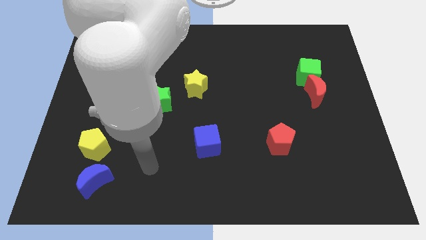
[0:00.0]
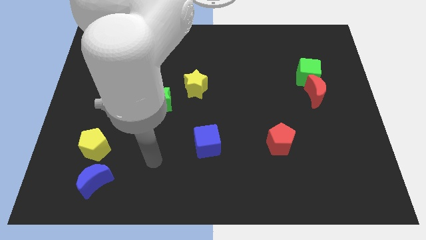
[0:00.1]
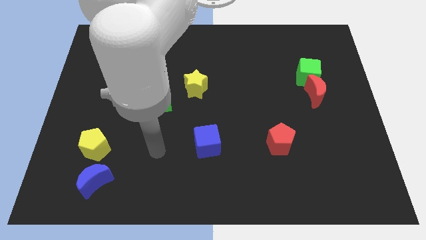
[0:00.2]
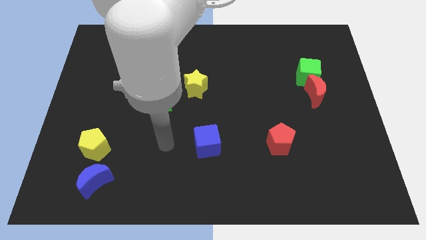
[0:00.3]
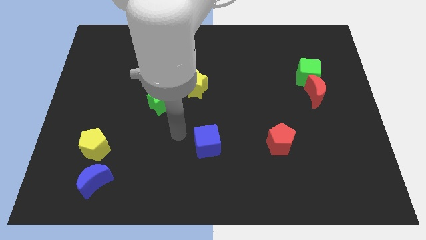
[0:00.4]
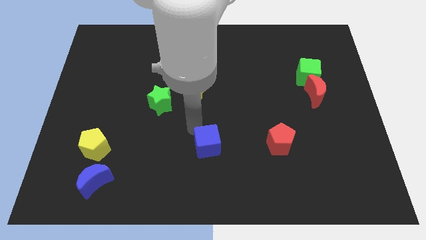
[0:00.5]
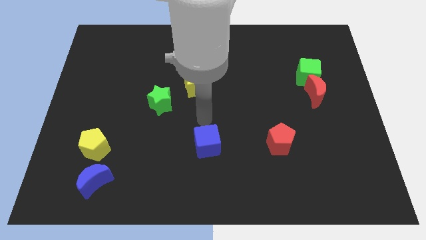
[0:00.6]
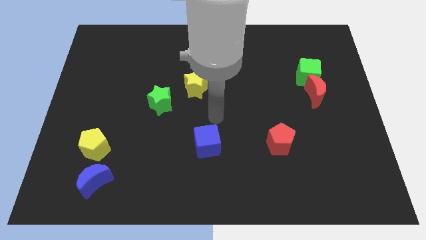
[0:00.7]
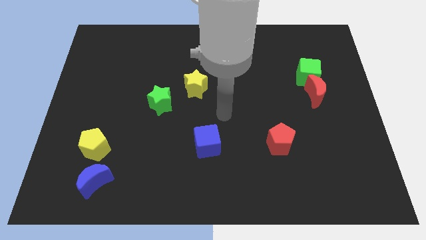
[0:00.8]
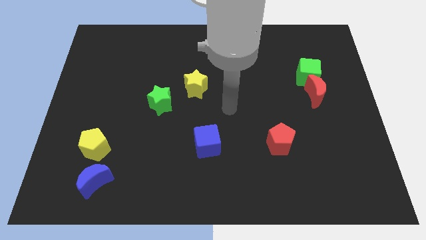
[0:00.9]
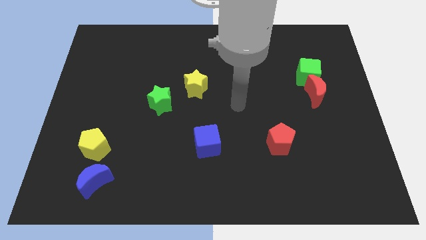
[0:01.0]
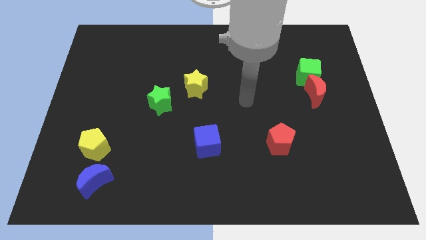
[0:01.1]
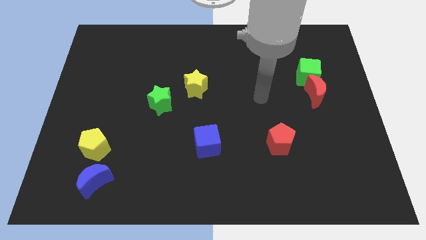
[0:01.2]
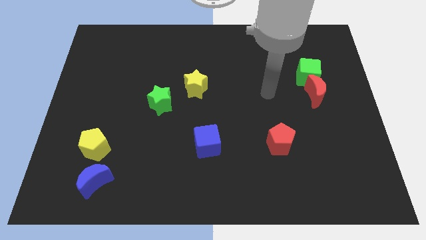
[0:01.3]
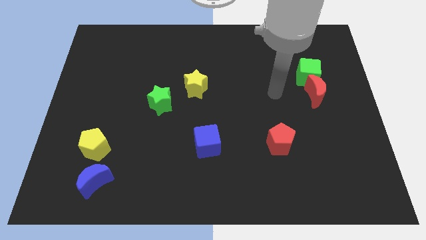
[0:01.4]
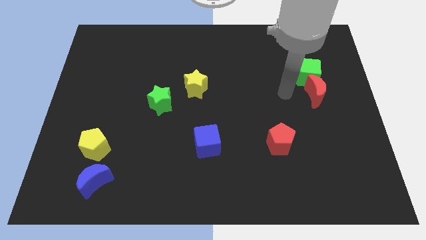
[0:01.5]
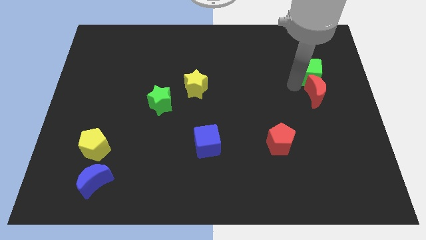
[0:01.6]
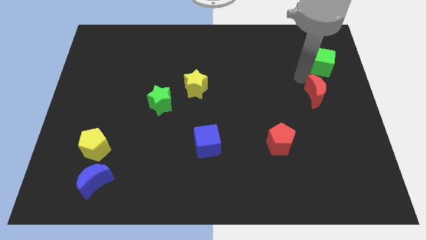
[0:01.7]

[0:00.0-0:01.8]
move the red moon away from the green cube

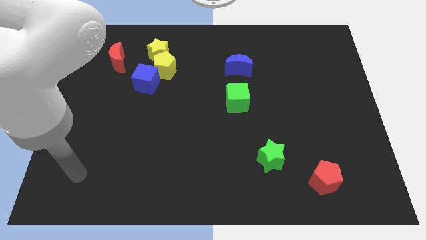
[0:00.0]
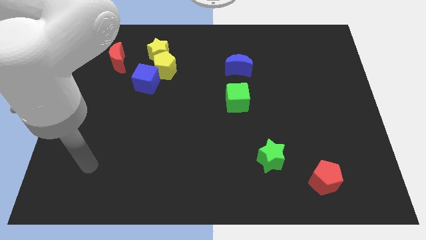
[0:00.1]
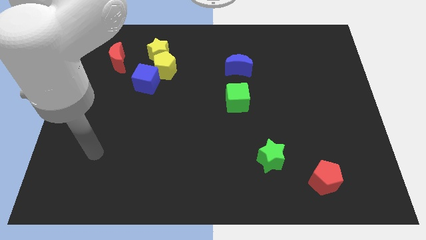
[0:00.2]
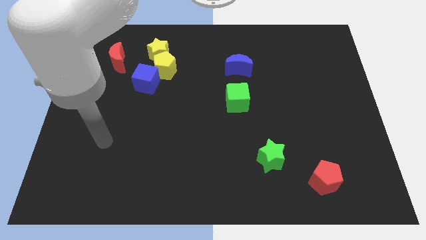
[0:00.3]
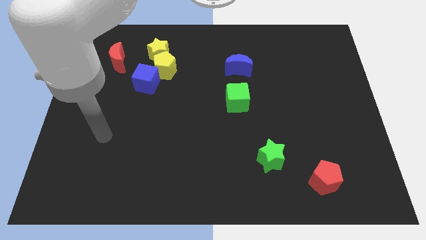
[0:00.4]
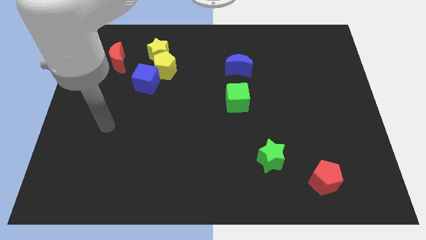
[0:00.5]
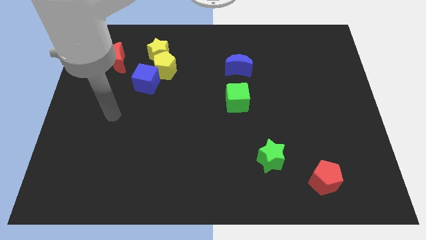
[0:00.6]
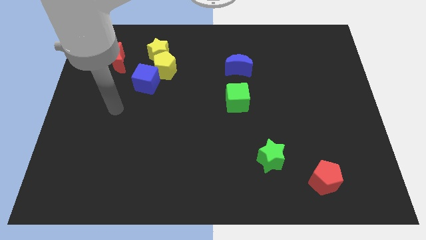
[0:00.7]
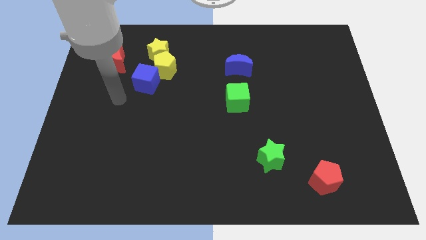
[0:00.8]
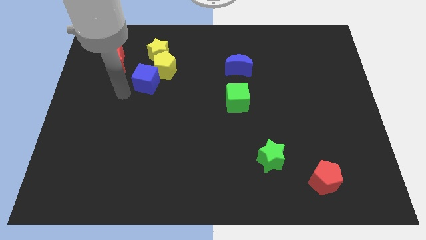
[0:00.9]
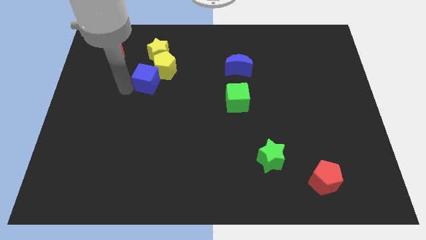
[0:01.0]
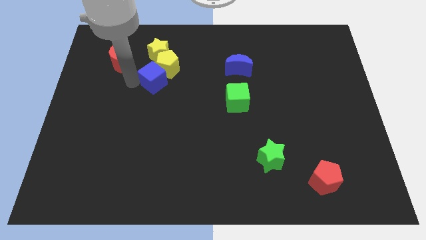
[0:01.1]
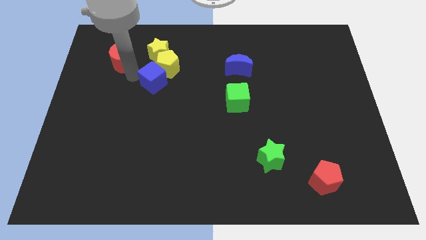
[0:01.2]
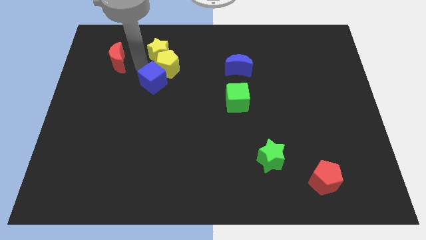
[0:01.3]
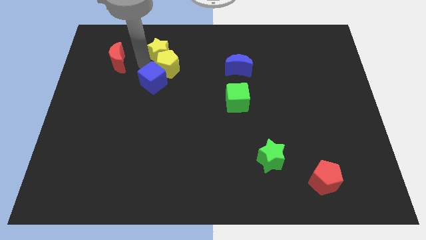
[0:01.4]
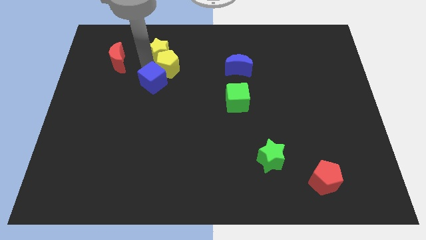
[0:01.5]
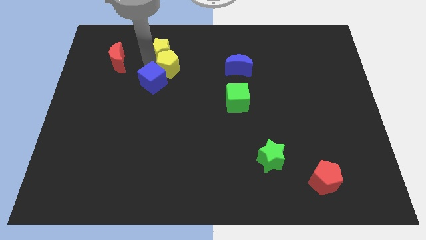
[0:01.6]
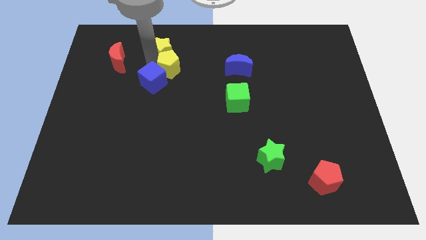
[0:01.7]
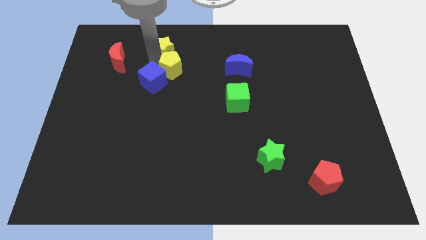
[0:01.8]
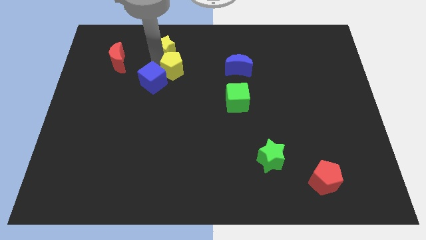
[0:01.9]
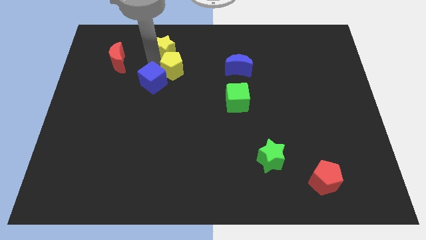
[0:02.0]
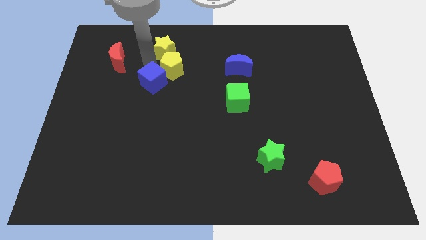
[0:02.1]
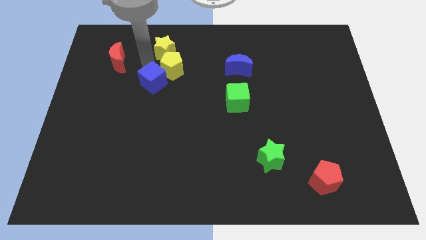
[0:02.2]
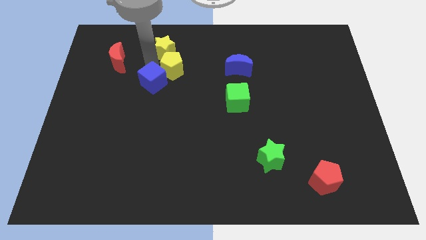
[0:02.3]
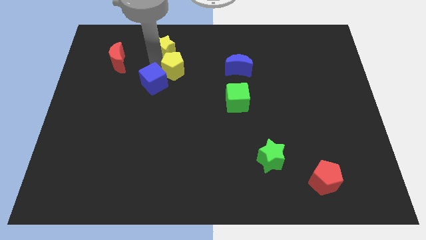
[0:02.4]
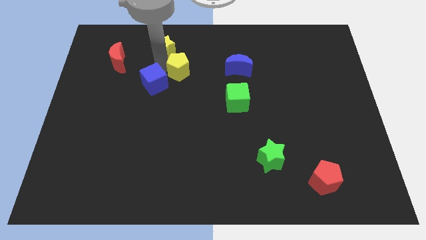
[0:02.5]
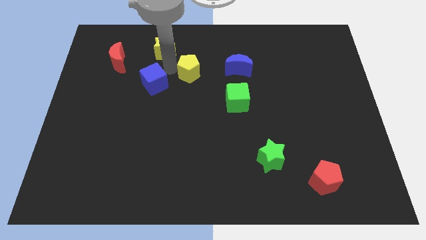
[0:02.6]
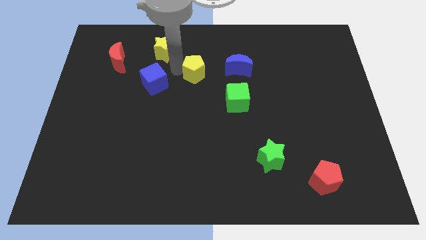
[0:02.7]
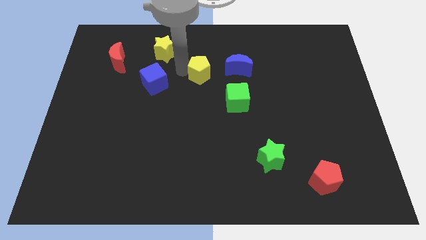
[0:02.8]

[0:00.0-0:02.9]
pull the yellow pentagon apart from the yellow star and blue cube

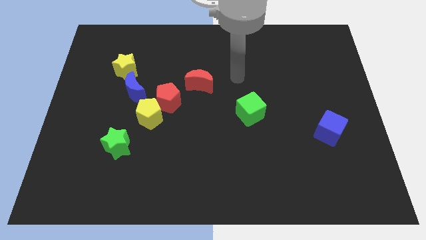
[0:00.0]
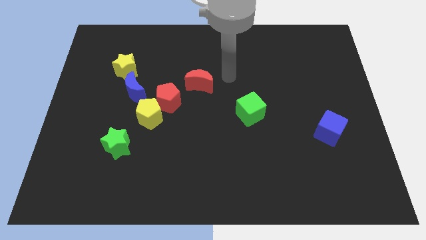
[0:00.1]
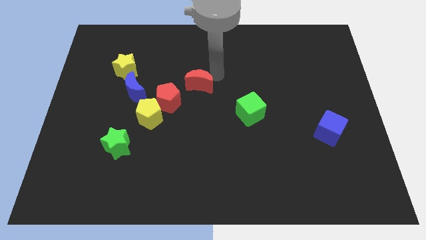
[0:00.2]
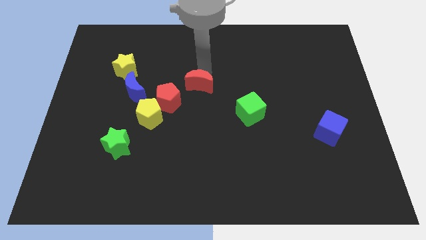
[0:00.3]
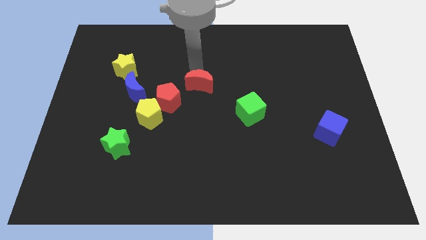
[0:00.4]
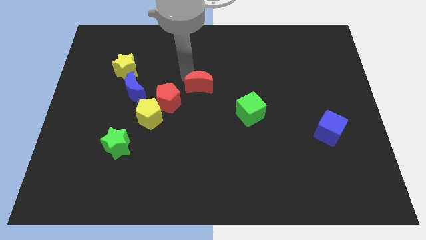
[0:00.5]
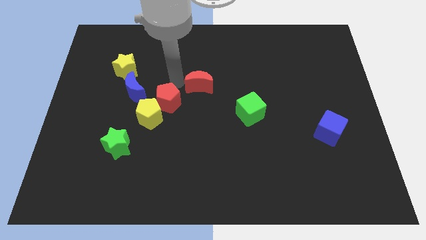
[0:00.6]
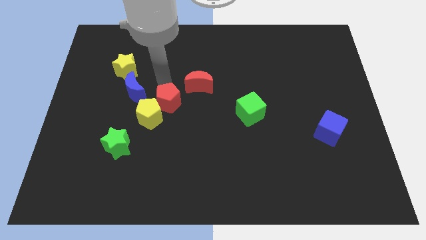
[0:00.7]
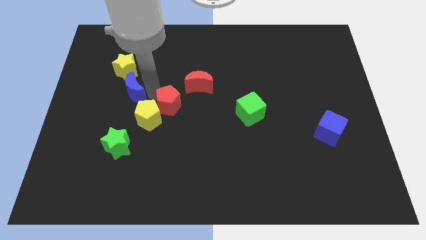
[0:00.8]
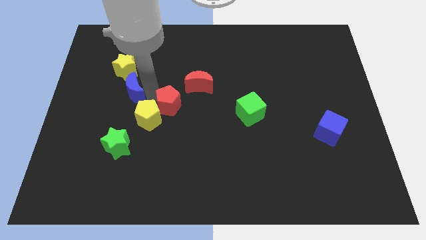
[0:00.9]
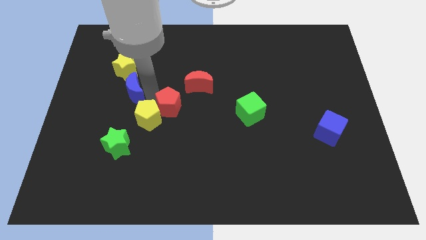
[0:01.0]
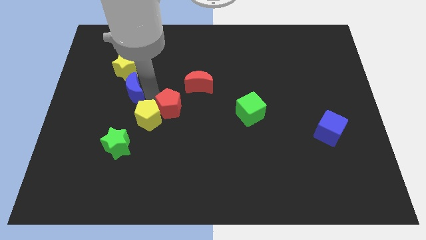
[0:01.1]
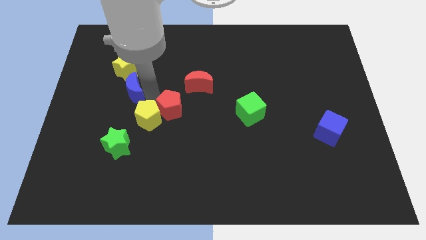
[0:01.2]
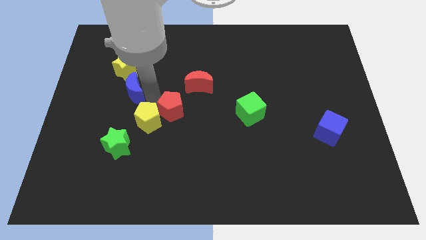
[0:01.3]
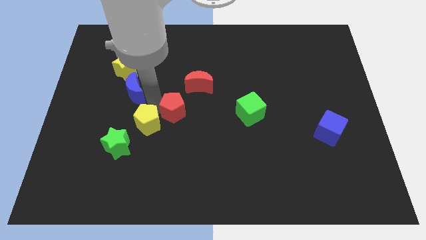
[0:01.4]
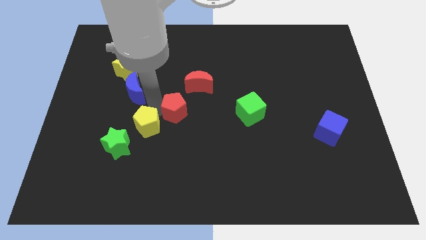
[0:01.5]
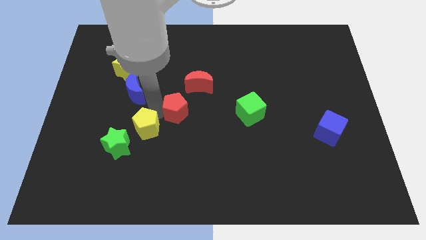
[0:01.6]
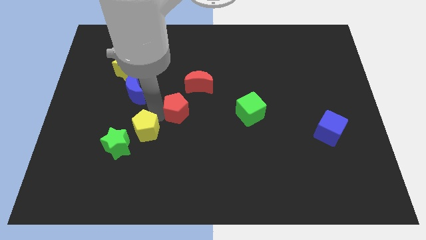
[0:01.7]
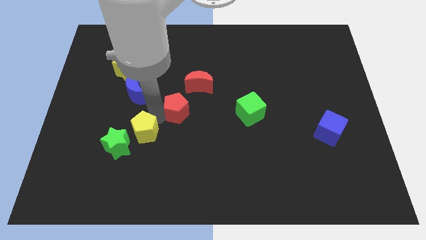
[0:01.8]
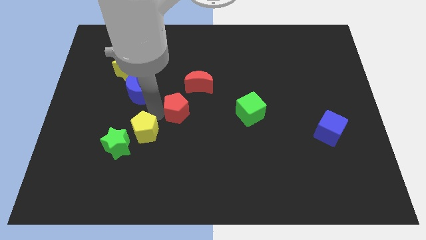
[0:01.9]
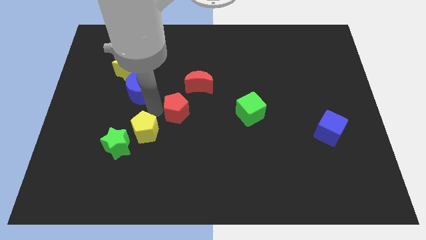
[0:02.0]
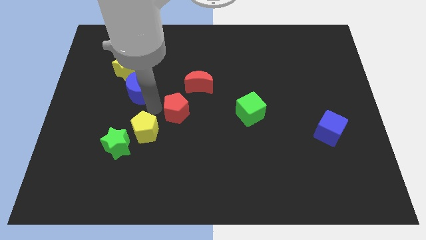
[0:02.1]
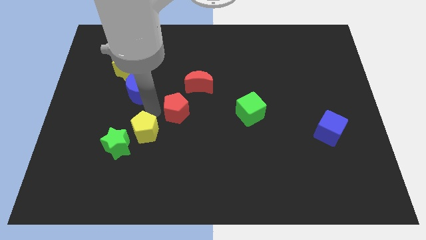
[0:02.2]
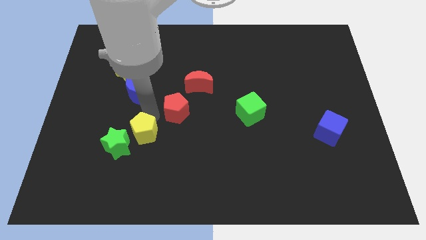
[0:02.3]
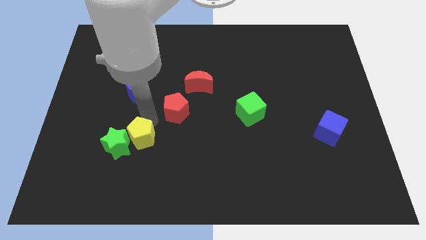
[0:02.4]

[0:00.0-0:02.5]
pull the yellow pentagon apart from the red pentagon and blue moon

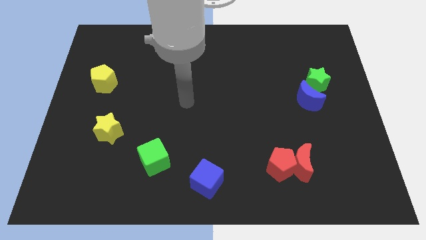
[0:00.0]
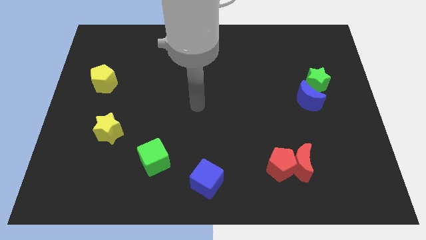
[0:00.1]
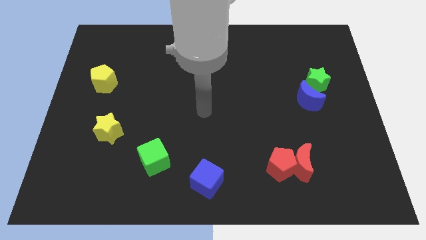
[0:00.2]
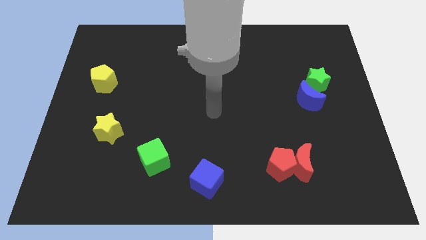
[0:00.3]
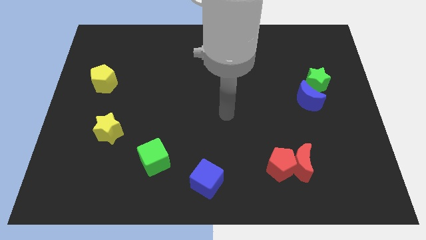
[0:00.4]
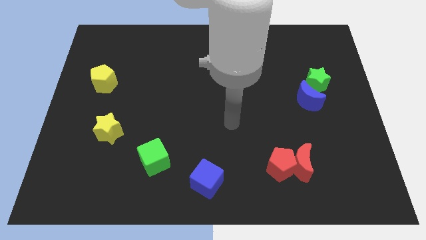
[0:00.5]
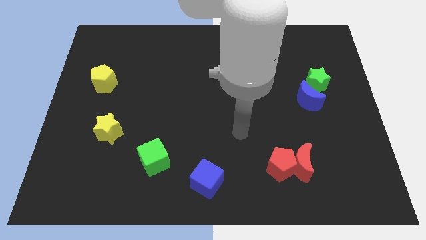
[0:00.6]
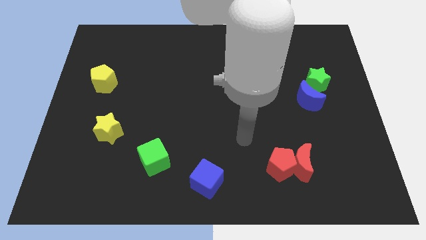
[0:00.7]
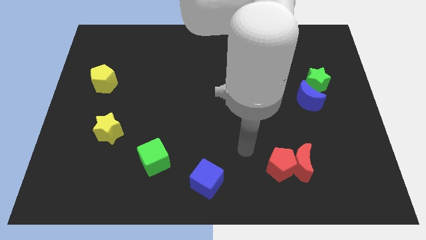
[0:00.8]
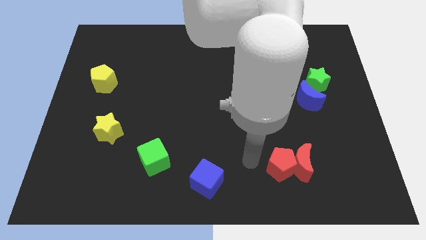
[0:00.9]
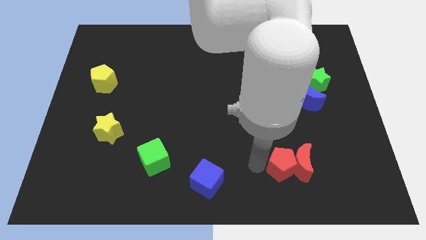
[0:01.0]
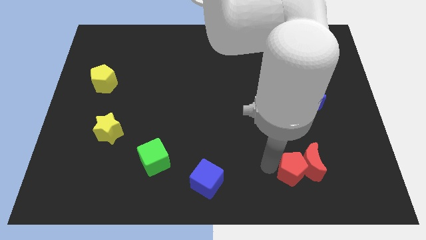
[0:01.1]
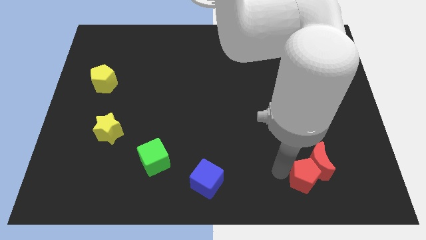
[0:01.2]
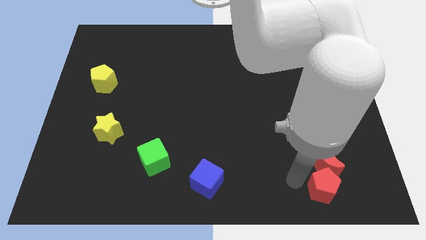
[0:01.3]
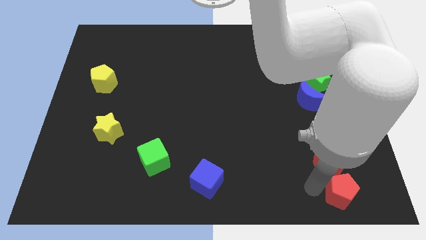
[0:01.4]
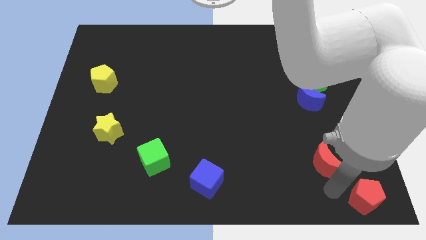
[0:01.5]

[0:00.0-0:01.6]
pull the red moon apart from the red pentagon

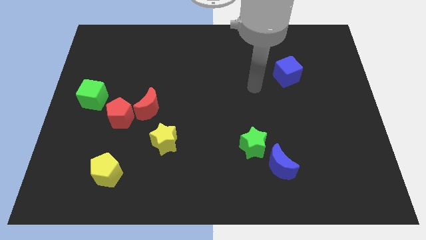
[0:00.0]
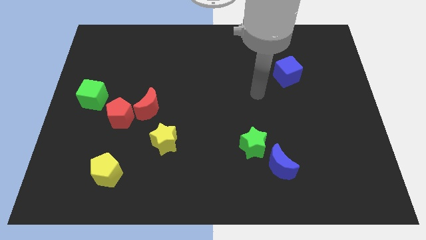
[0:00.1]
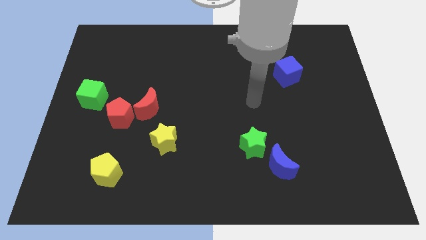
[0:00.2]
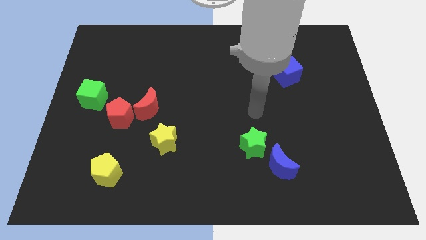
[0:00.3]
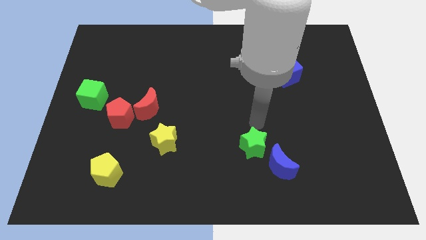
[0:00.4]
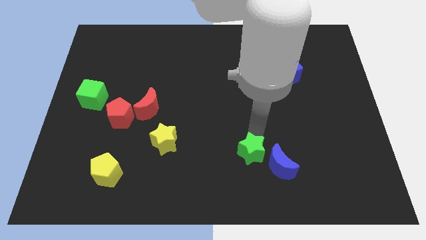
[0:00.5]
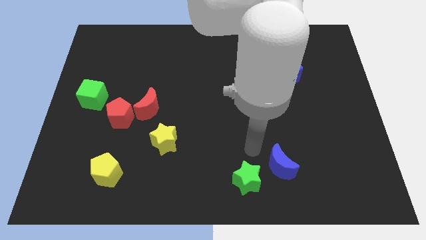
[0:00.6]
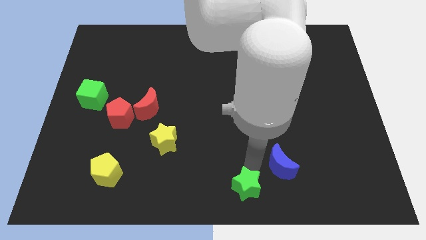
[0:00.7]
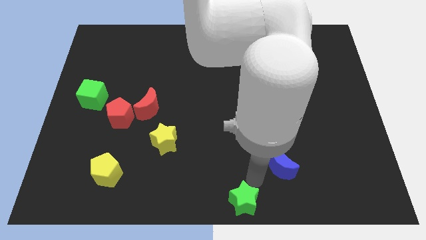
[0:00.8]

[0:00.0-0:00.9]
move the blue moon away from the green star
